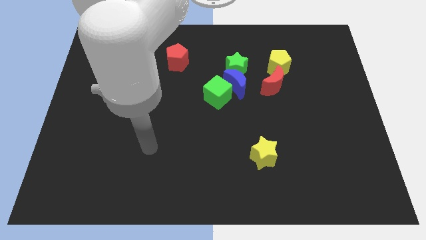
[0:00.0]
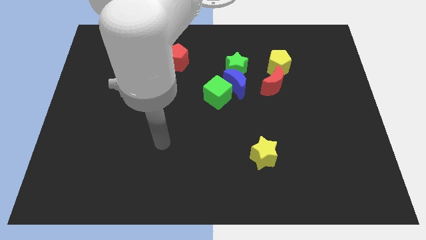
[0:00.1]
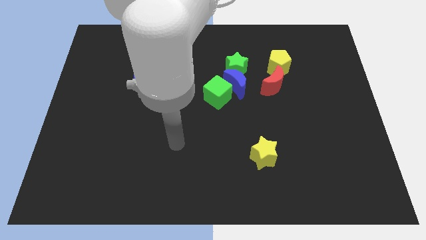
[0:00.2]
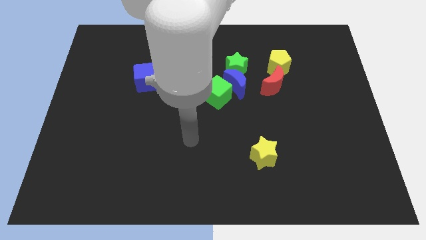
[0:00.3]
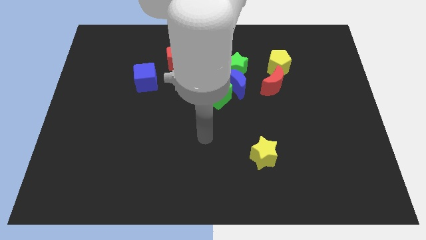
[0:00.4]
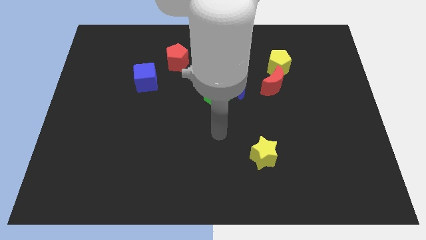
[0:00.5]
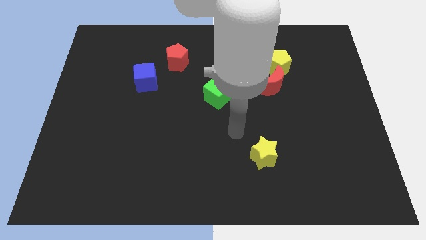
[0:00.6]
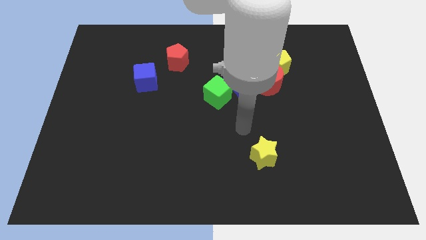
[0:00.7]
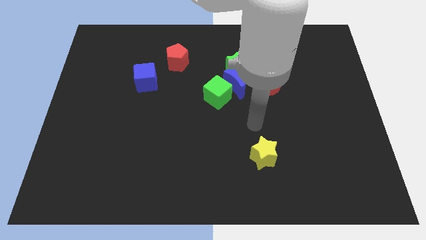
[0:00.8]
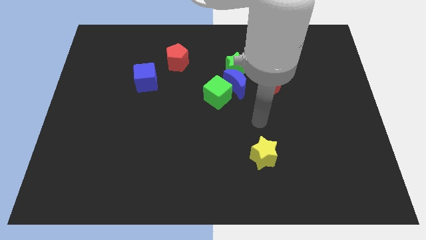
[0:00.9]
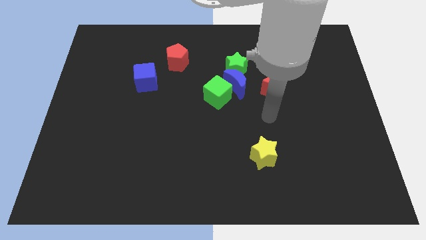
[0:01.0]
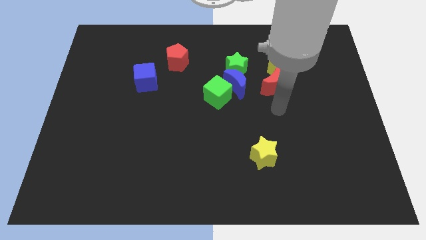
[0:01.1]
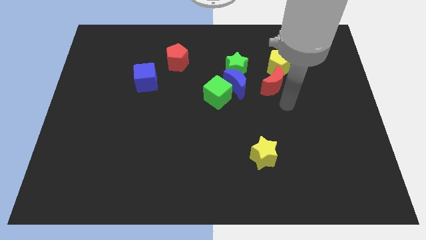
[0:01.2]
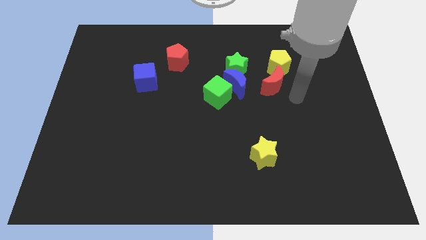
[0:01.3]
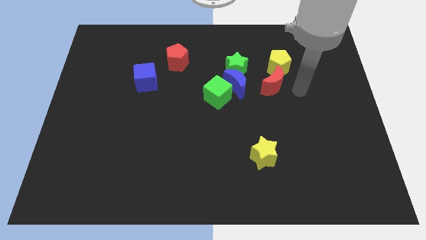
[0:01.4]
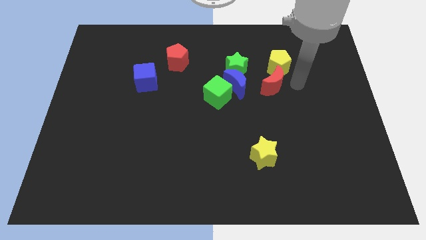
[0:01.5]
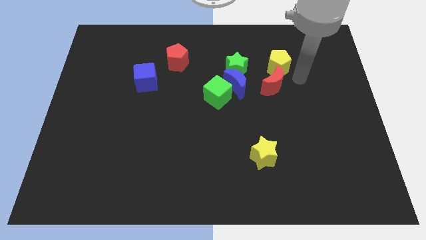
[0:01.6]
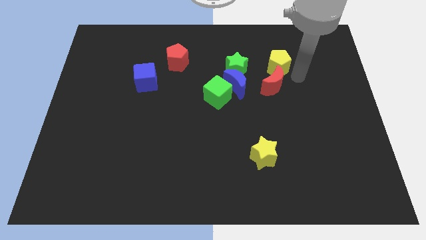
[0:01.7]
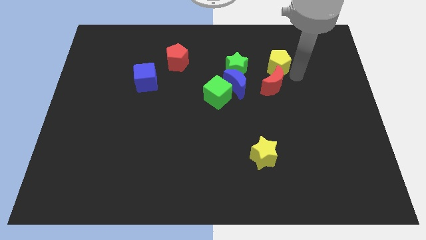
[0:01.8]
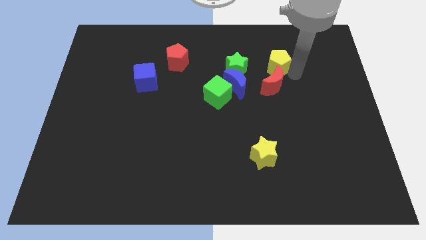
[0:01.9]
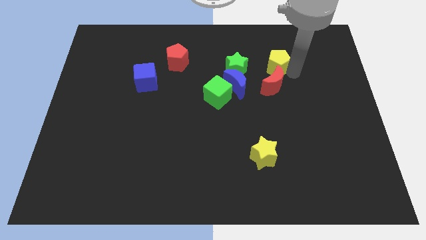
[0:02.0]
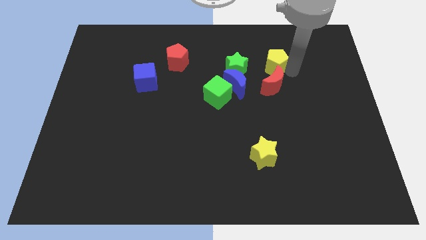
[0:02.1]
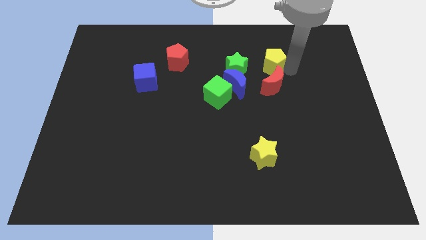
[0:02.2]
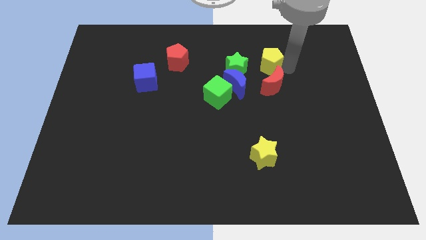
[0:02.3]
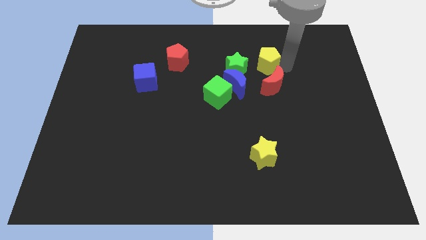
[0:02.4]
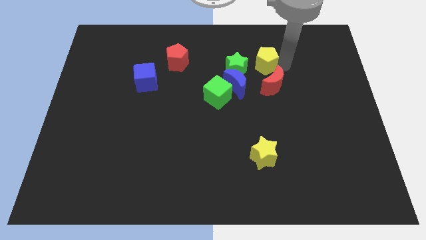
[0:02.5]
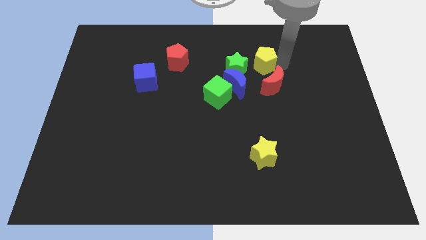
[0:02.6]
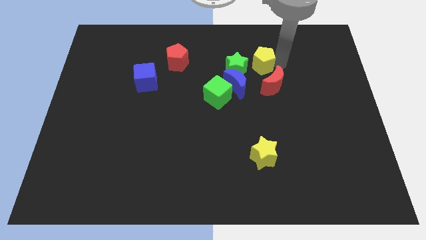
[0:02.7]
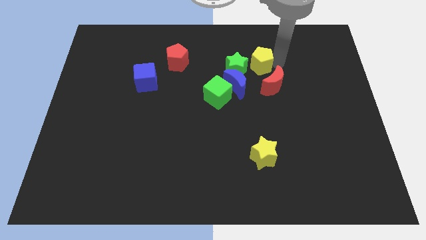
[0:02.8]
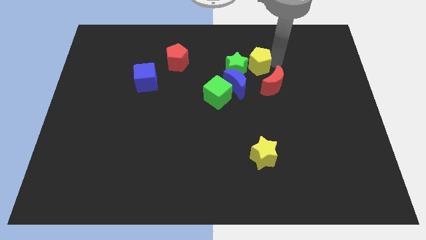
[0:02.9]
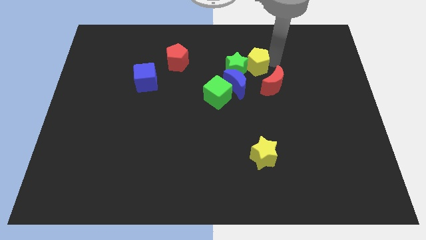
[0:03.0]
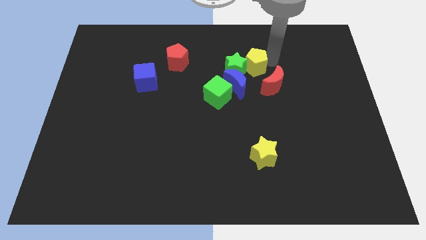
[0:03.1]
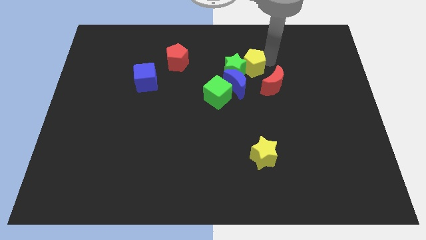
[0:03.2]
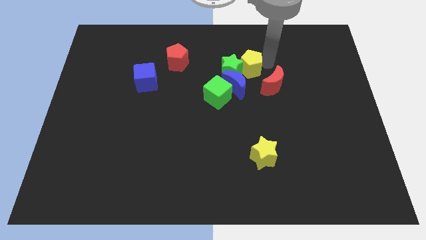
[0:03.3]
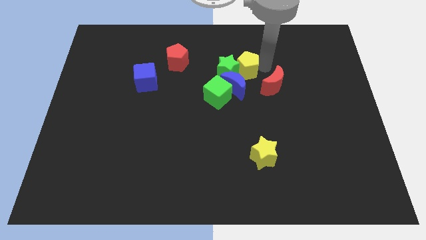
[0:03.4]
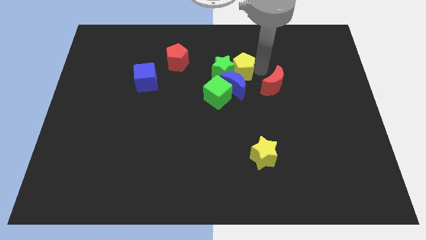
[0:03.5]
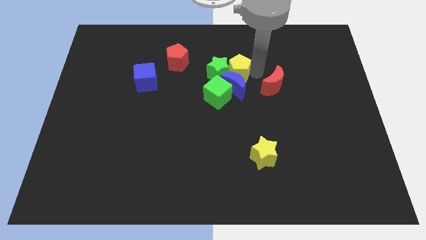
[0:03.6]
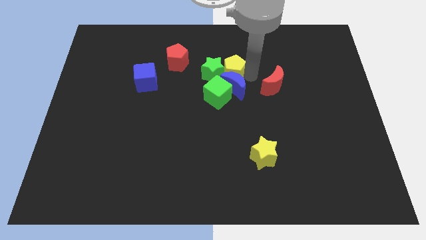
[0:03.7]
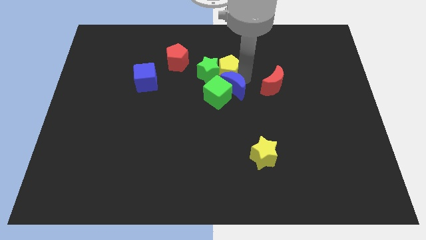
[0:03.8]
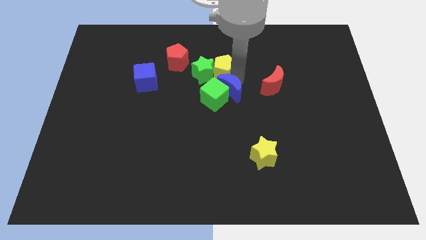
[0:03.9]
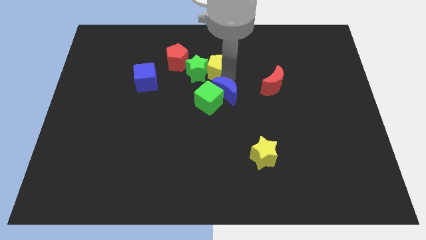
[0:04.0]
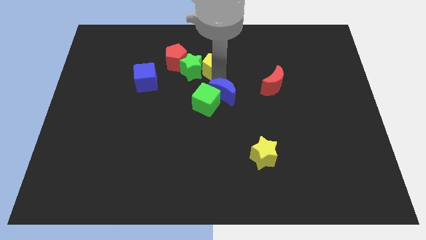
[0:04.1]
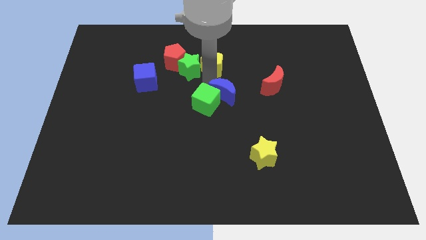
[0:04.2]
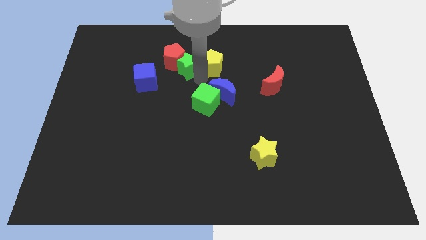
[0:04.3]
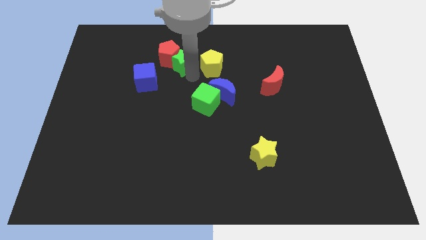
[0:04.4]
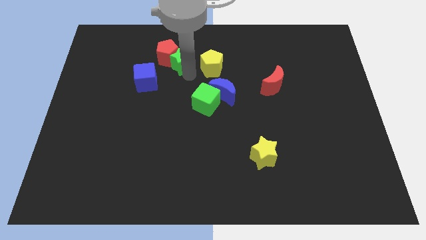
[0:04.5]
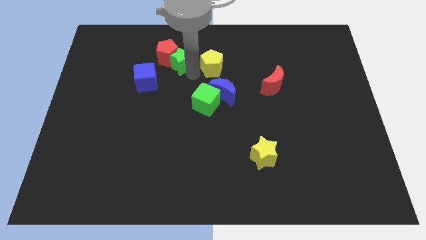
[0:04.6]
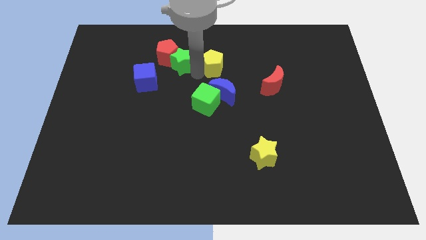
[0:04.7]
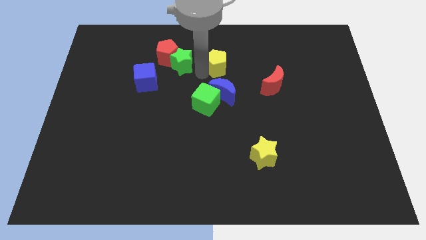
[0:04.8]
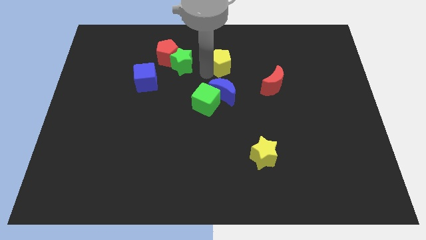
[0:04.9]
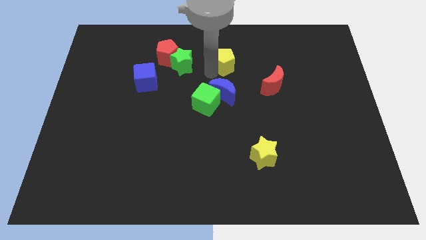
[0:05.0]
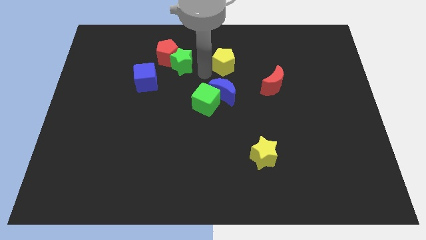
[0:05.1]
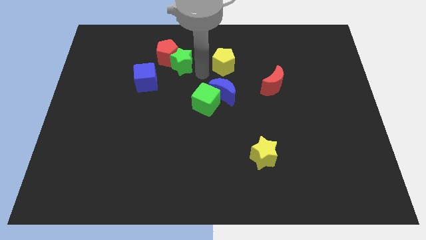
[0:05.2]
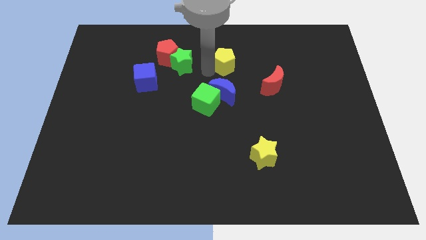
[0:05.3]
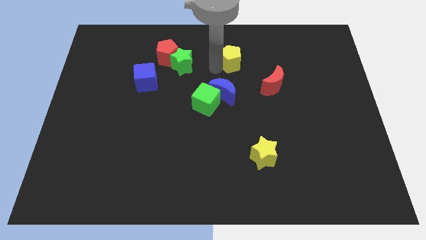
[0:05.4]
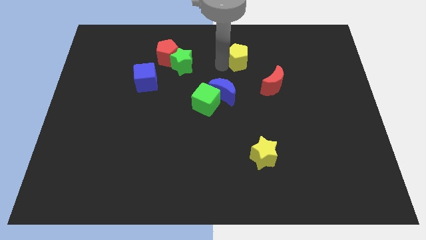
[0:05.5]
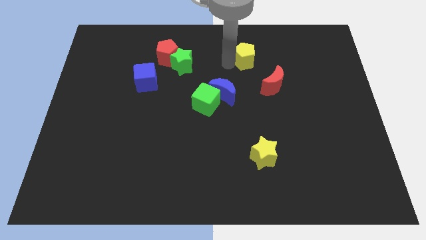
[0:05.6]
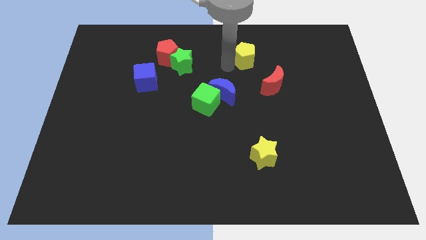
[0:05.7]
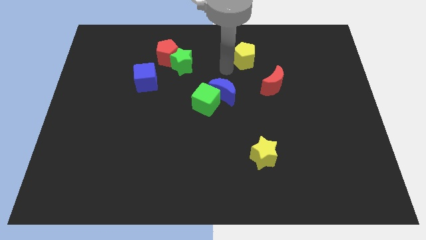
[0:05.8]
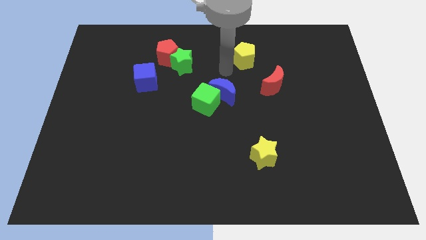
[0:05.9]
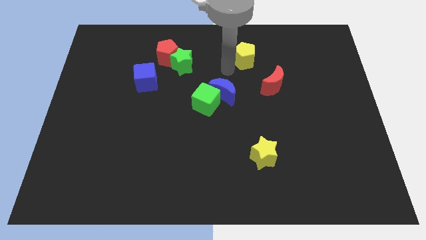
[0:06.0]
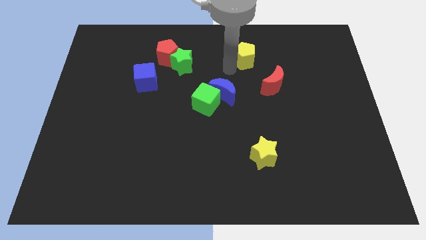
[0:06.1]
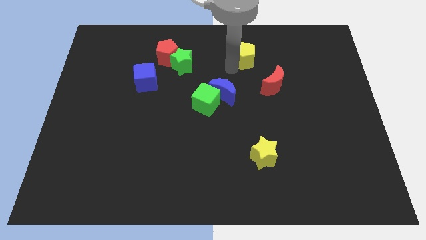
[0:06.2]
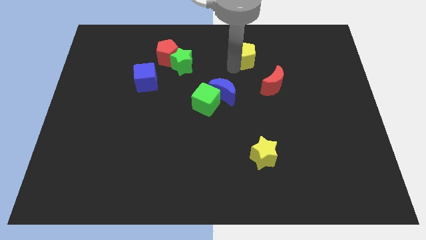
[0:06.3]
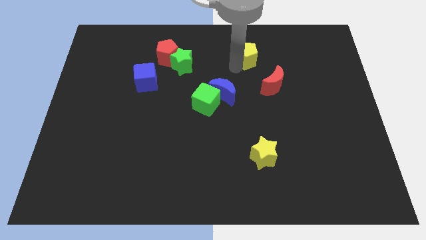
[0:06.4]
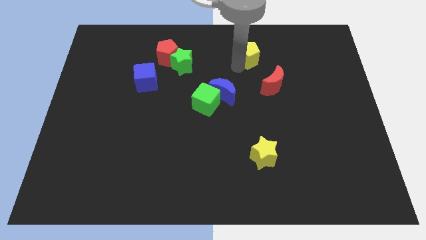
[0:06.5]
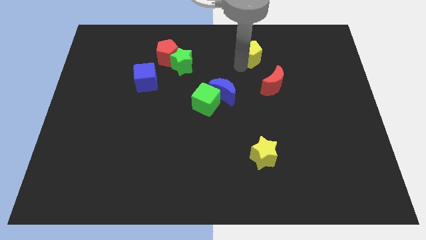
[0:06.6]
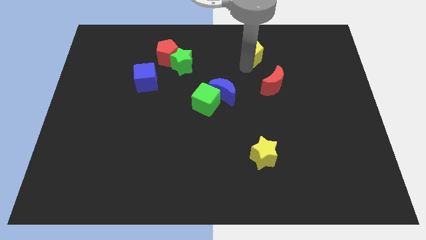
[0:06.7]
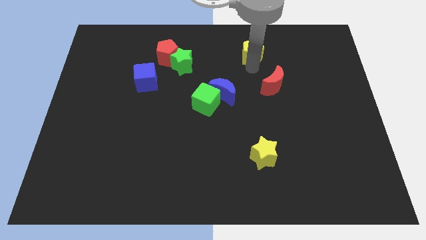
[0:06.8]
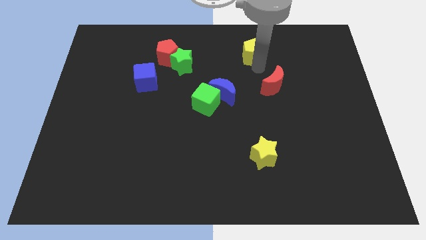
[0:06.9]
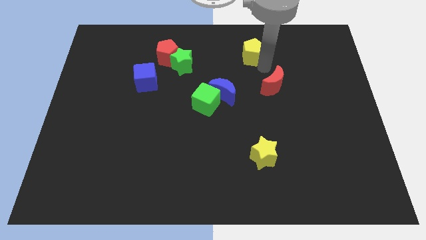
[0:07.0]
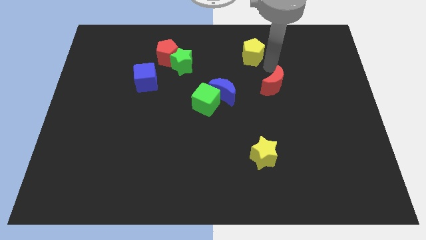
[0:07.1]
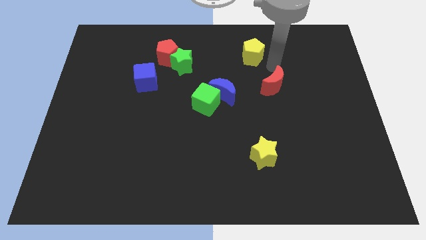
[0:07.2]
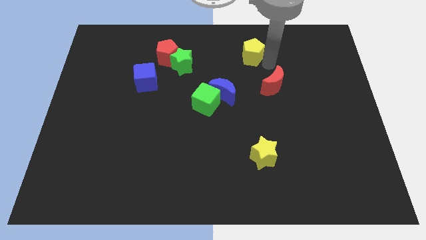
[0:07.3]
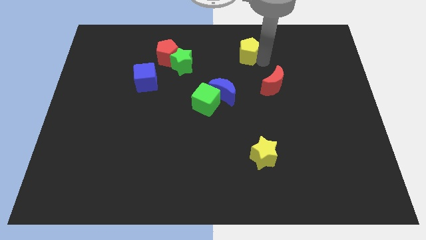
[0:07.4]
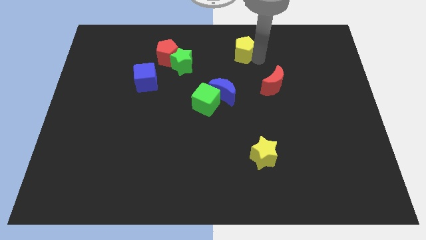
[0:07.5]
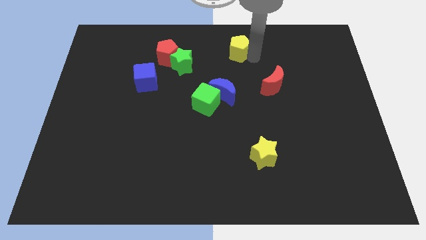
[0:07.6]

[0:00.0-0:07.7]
move the yellow pentagon to the top
